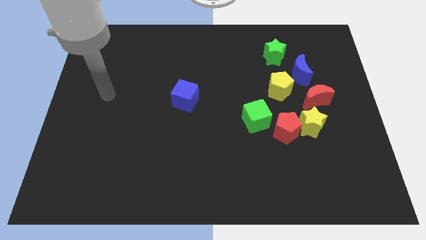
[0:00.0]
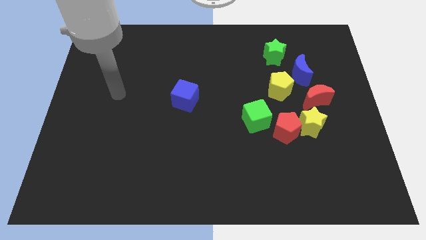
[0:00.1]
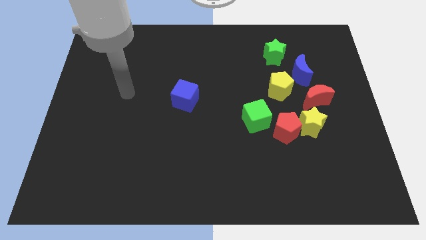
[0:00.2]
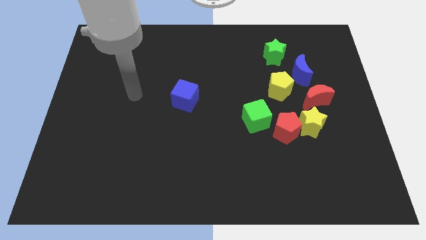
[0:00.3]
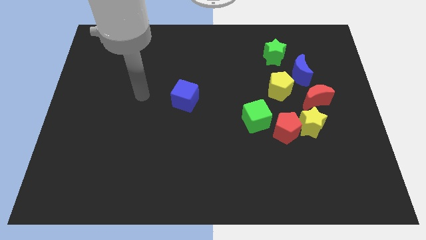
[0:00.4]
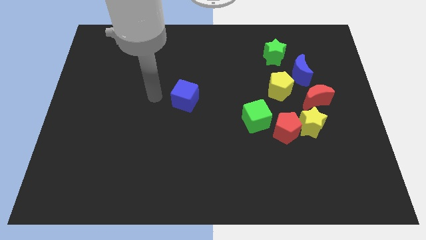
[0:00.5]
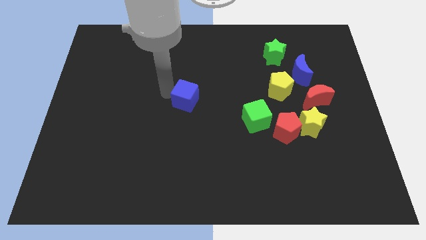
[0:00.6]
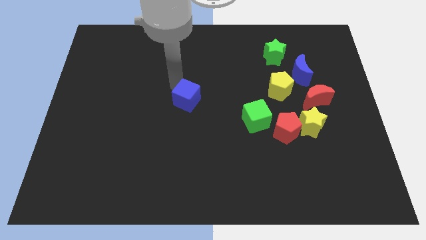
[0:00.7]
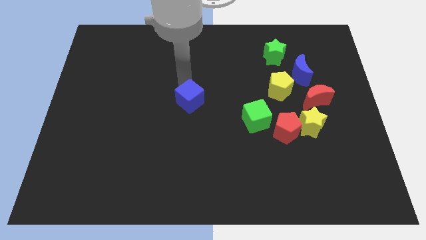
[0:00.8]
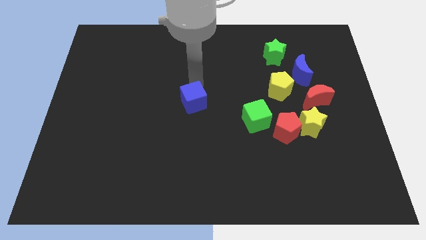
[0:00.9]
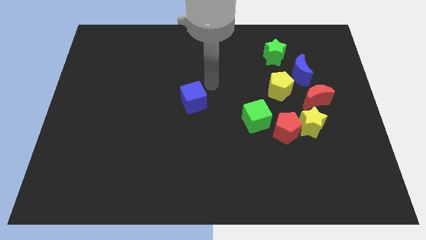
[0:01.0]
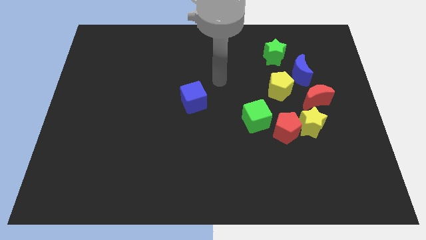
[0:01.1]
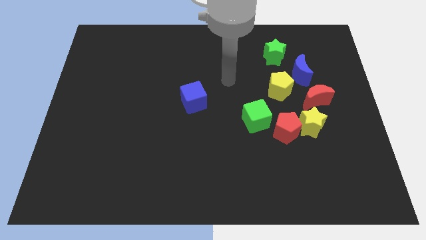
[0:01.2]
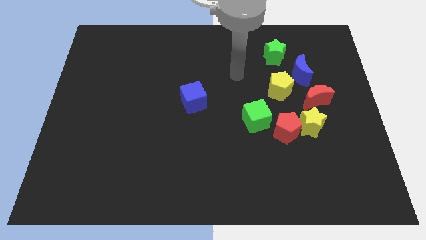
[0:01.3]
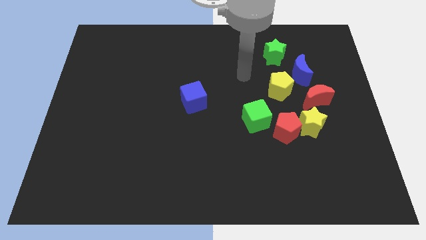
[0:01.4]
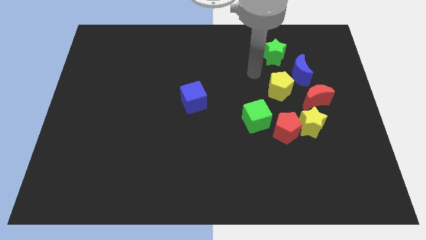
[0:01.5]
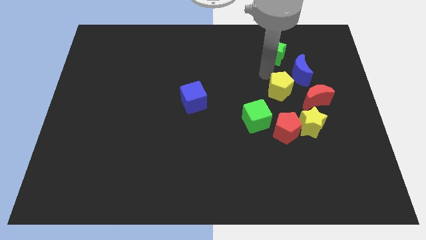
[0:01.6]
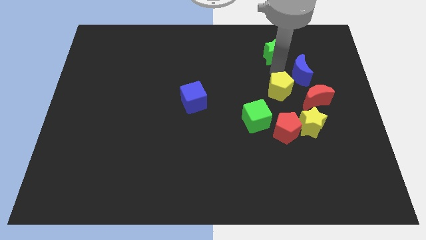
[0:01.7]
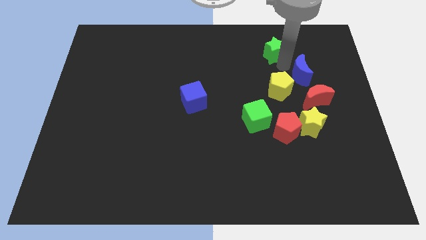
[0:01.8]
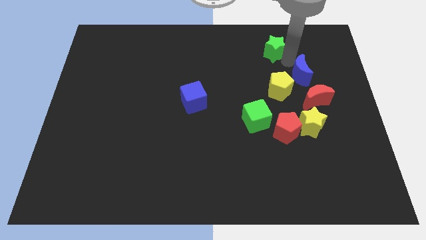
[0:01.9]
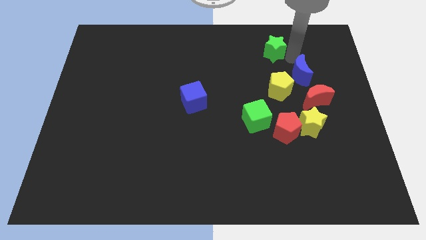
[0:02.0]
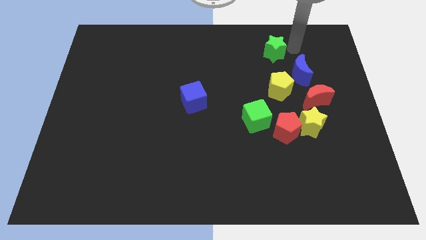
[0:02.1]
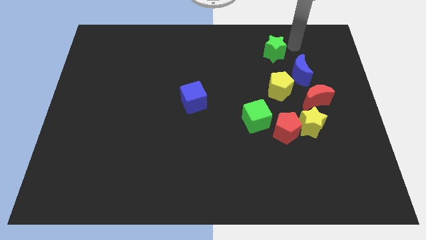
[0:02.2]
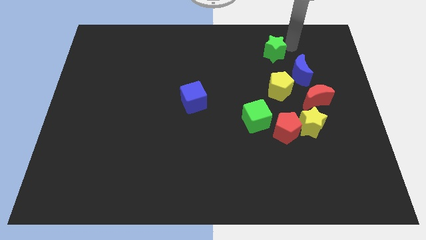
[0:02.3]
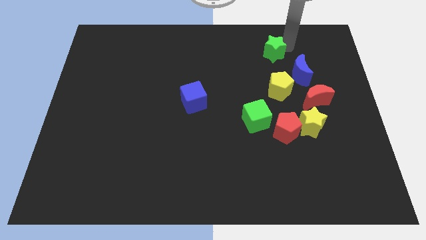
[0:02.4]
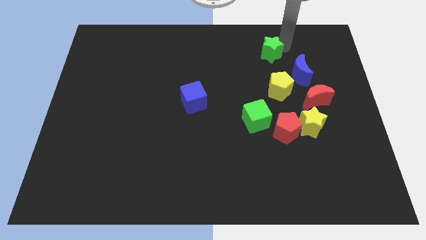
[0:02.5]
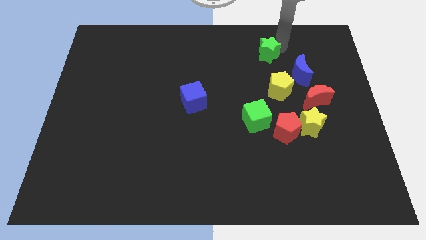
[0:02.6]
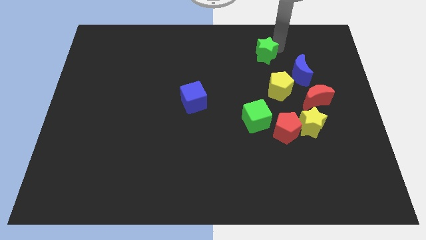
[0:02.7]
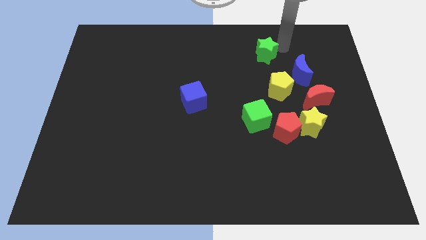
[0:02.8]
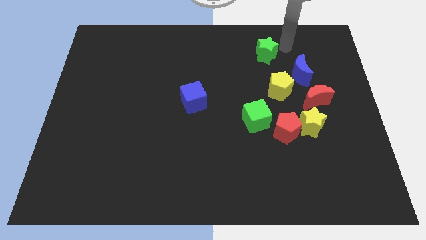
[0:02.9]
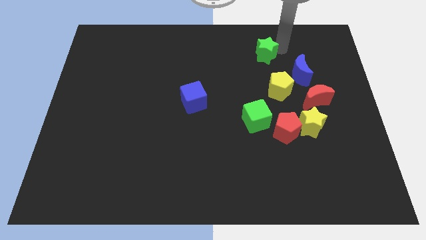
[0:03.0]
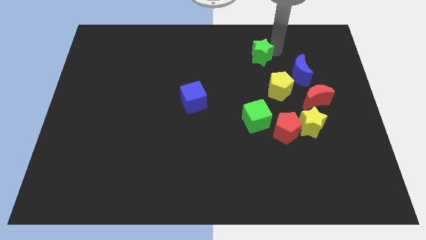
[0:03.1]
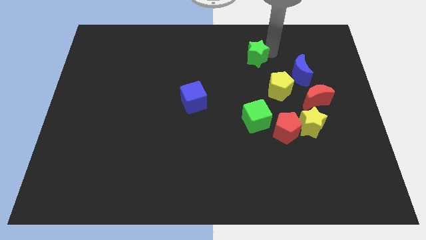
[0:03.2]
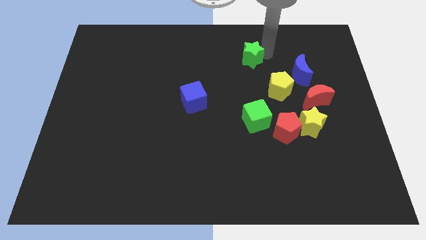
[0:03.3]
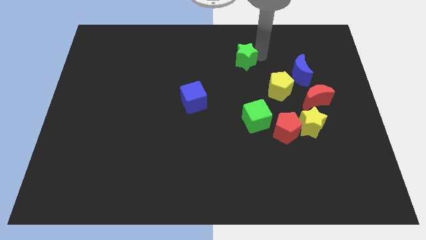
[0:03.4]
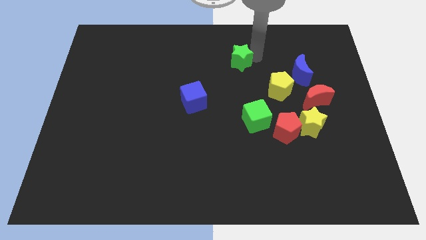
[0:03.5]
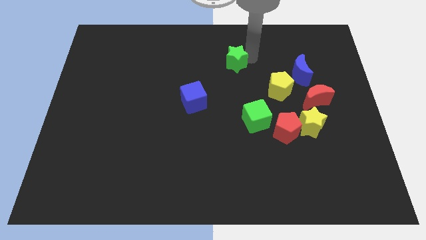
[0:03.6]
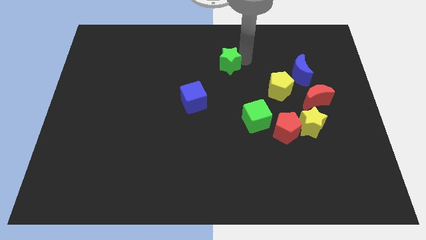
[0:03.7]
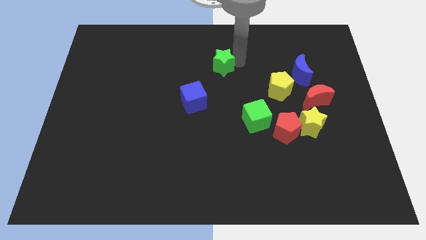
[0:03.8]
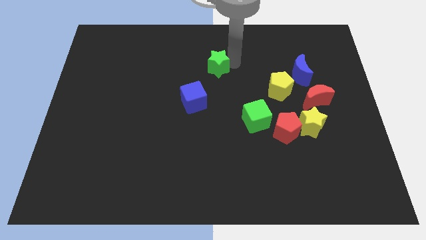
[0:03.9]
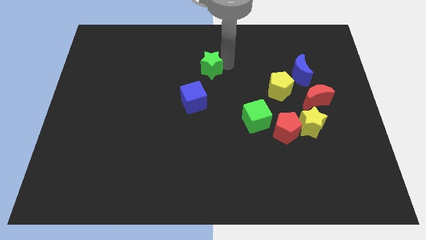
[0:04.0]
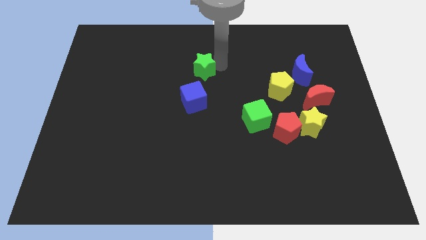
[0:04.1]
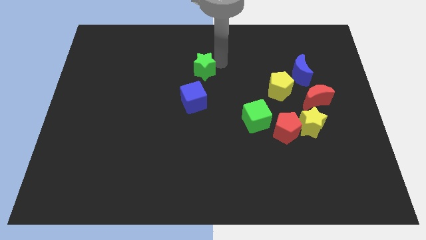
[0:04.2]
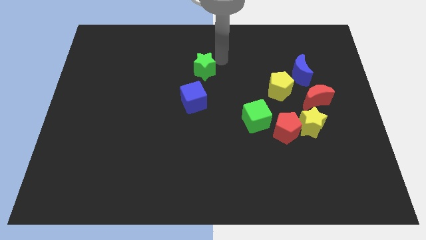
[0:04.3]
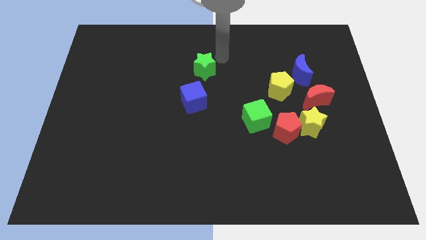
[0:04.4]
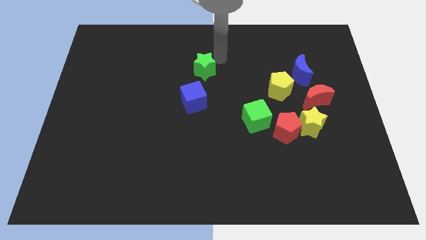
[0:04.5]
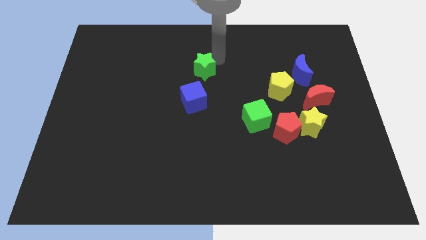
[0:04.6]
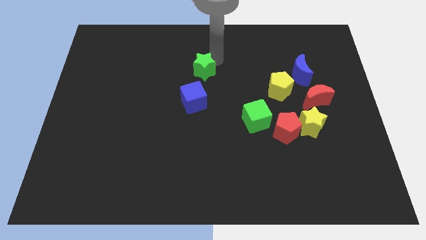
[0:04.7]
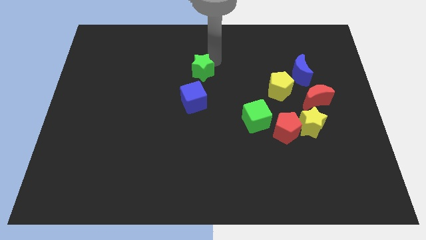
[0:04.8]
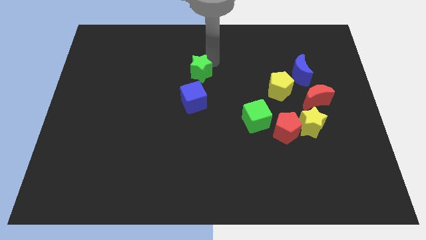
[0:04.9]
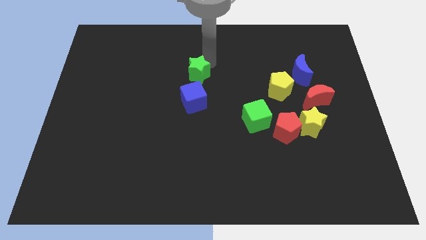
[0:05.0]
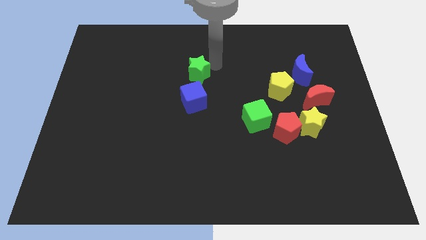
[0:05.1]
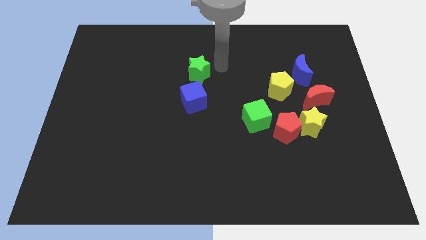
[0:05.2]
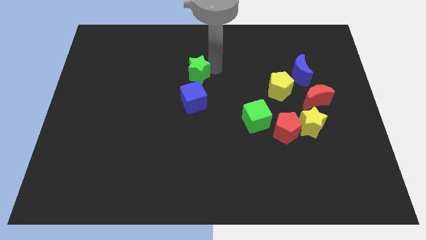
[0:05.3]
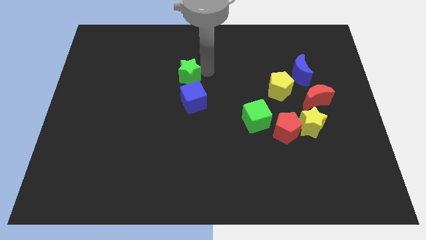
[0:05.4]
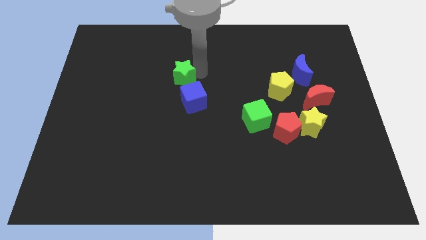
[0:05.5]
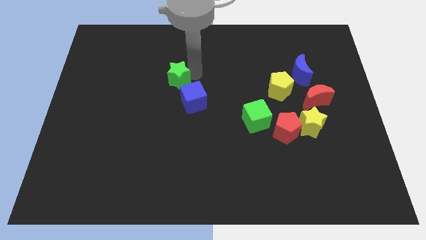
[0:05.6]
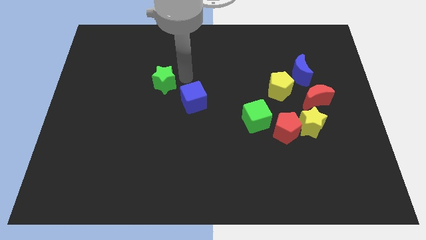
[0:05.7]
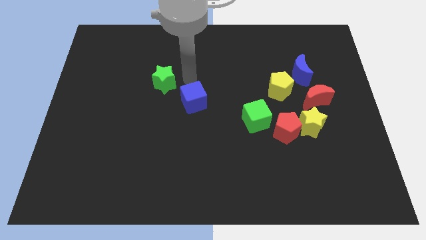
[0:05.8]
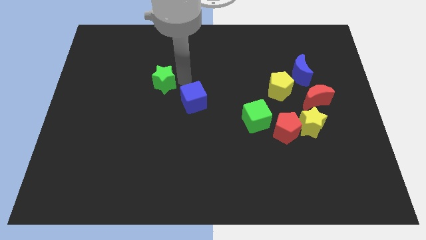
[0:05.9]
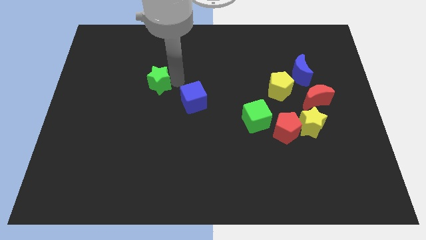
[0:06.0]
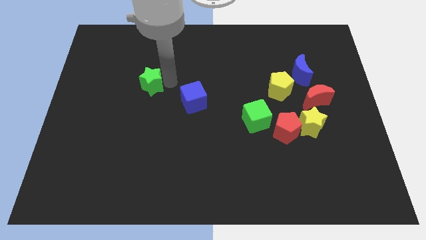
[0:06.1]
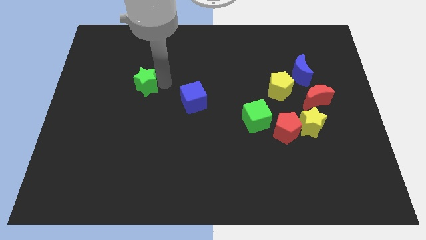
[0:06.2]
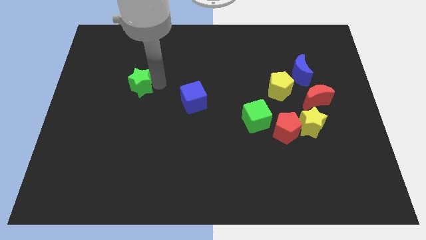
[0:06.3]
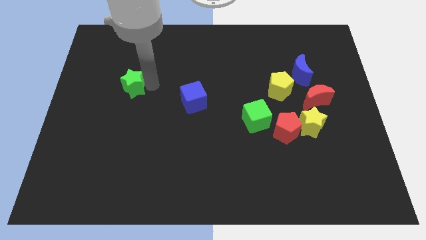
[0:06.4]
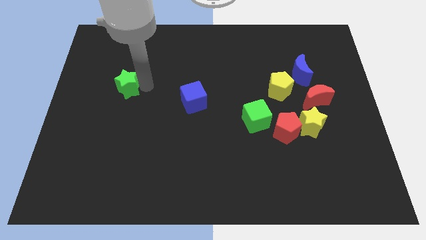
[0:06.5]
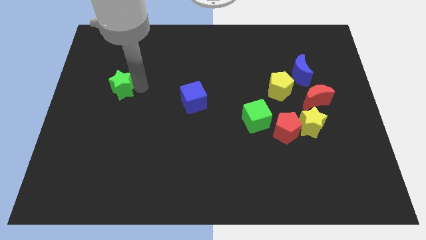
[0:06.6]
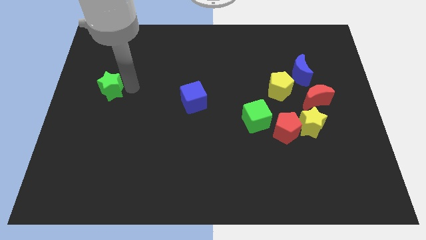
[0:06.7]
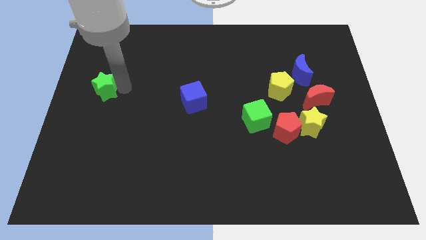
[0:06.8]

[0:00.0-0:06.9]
push the green star to the left side of the board
